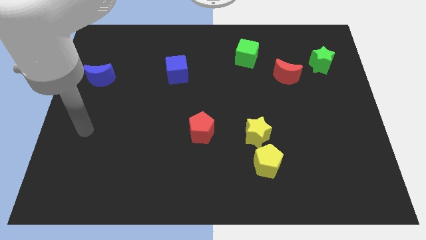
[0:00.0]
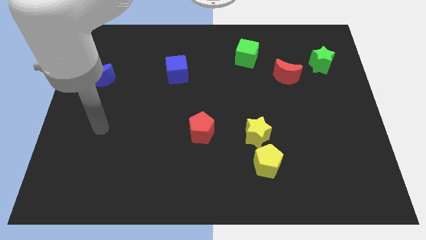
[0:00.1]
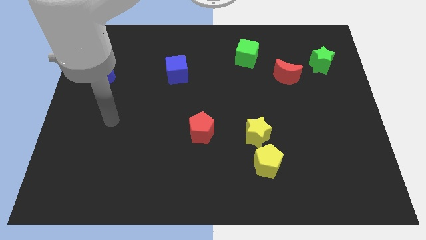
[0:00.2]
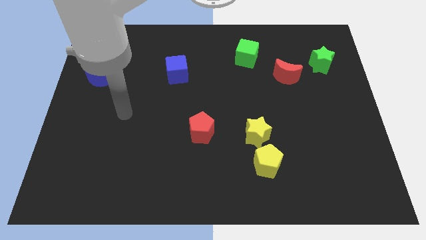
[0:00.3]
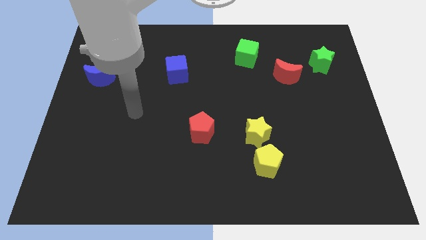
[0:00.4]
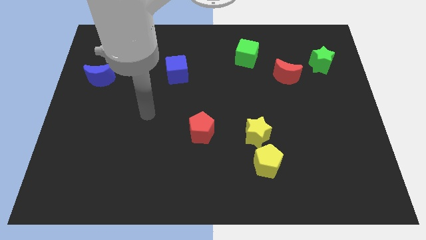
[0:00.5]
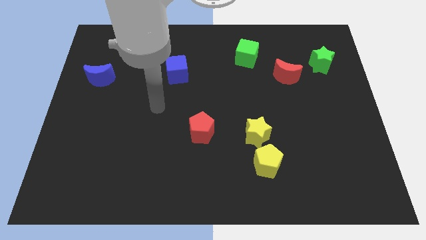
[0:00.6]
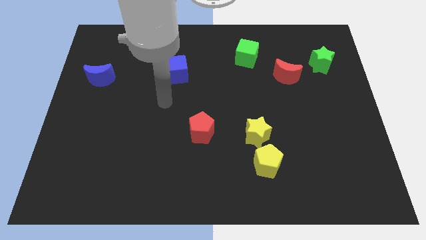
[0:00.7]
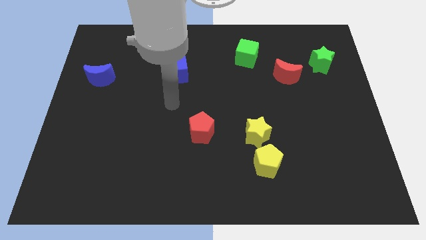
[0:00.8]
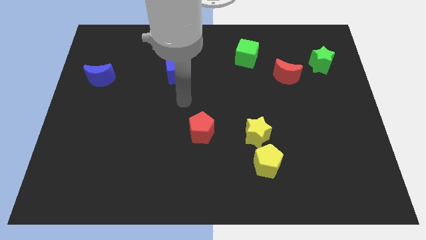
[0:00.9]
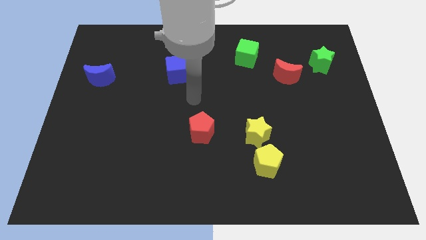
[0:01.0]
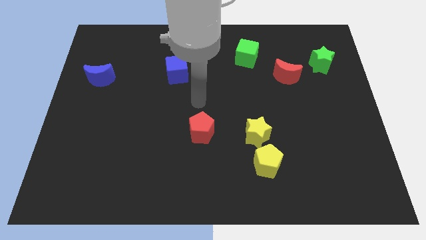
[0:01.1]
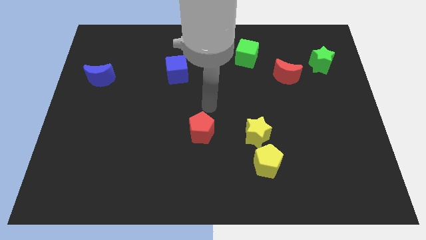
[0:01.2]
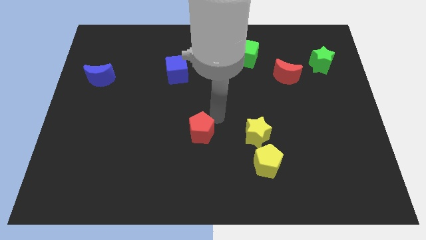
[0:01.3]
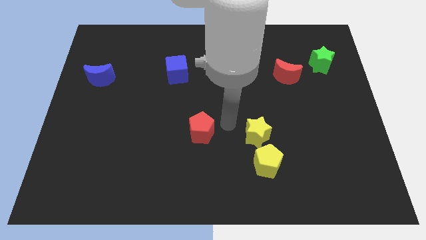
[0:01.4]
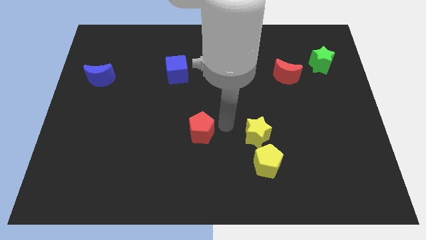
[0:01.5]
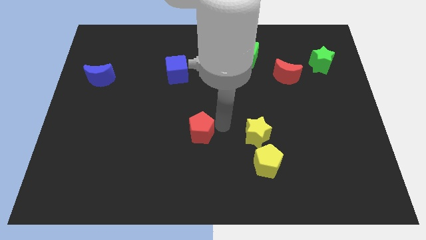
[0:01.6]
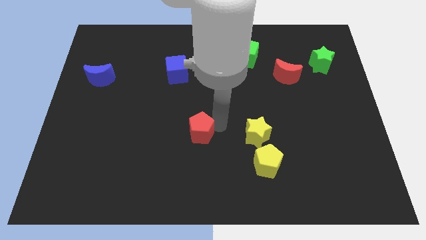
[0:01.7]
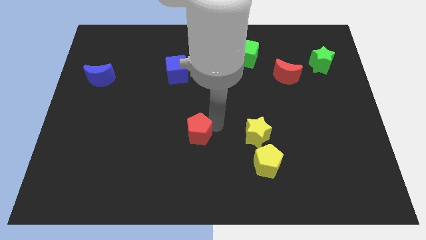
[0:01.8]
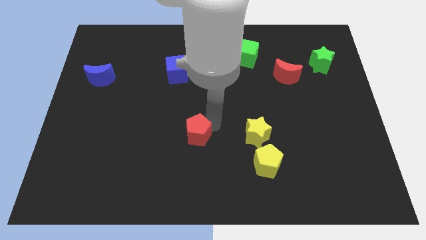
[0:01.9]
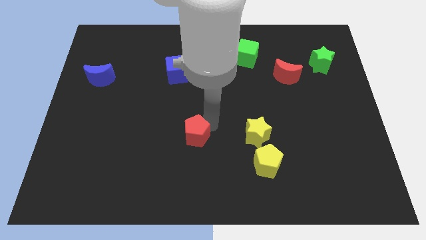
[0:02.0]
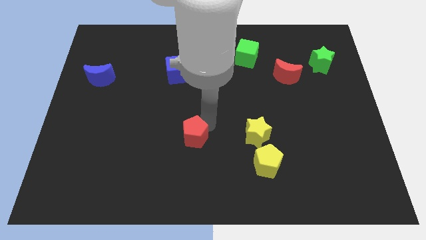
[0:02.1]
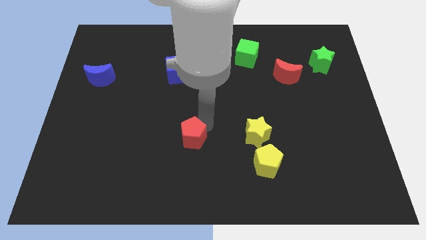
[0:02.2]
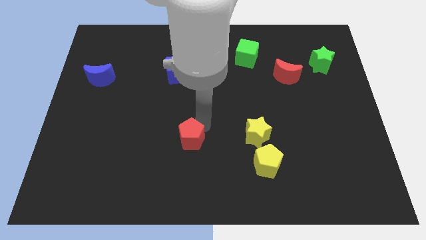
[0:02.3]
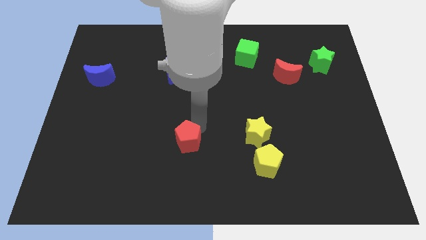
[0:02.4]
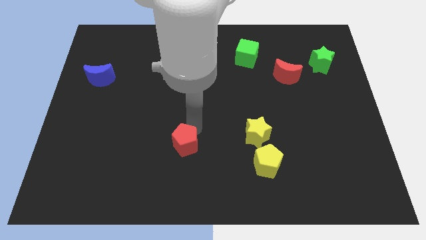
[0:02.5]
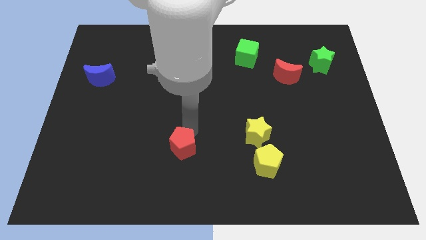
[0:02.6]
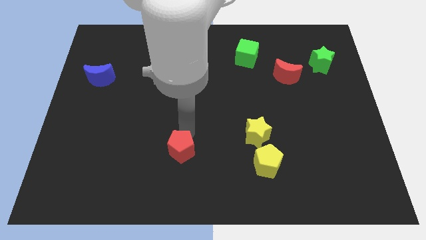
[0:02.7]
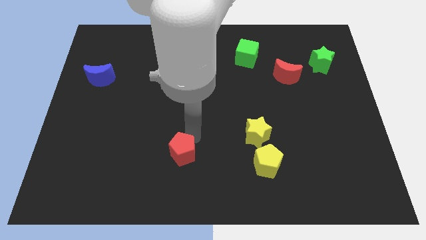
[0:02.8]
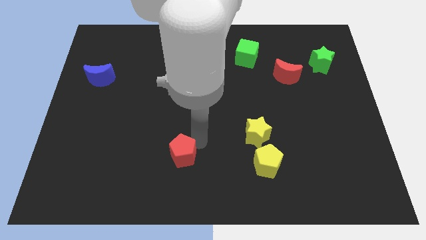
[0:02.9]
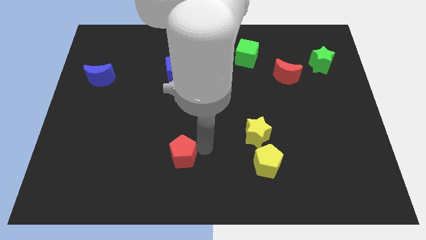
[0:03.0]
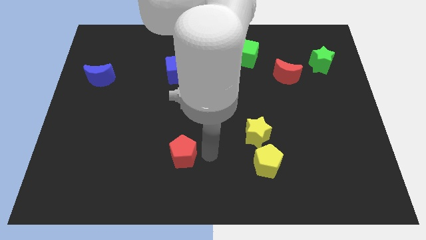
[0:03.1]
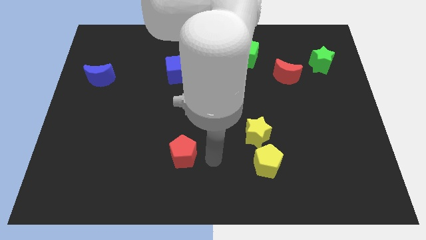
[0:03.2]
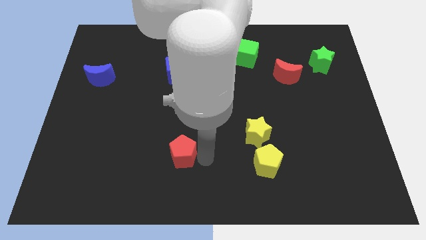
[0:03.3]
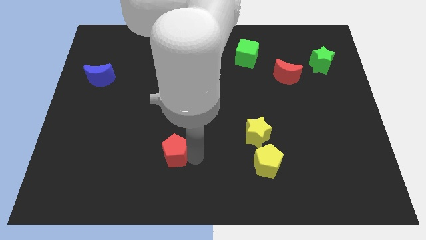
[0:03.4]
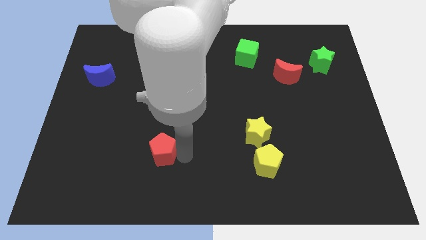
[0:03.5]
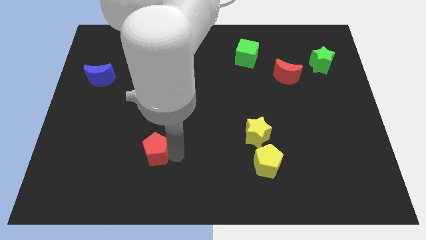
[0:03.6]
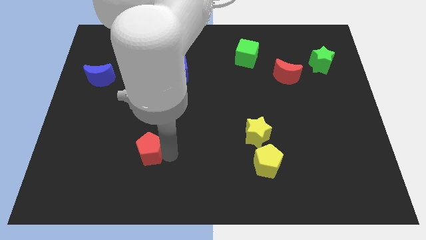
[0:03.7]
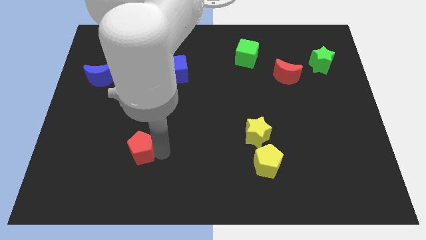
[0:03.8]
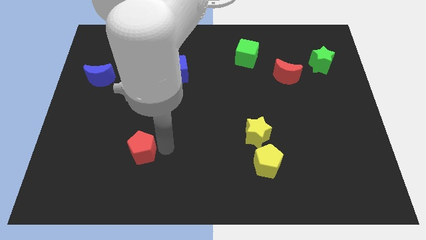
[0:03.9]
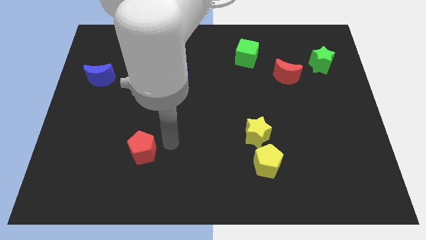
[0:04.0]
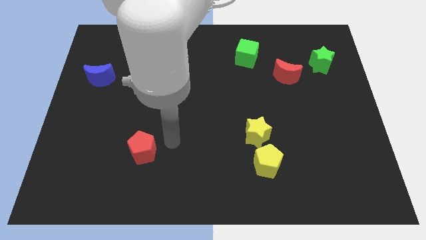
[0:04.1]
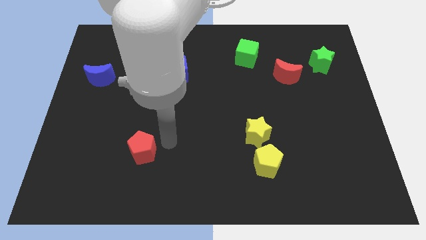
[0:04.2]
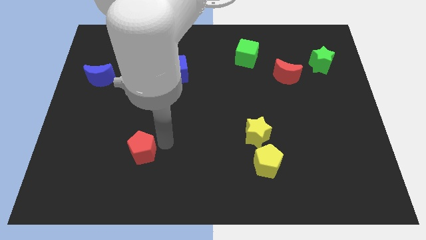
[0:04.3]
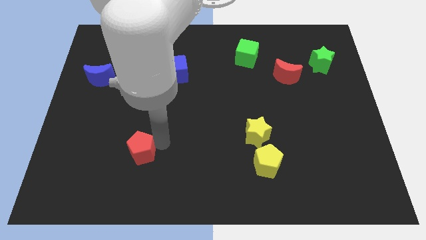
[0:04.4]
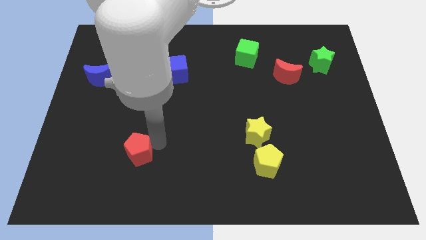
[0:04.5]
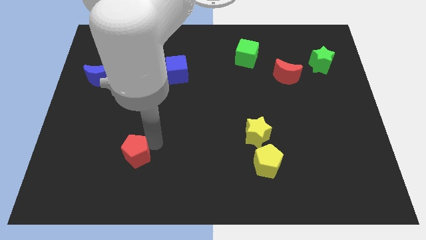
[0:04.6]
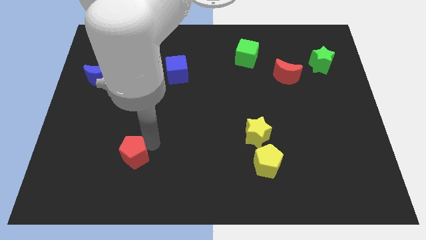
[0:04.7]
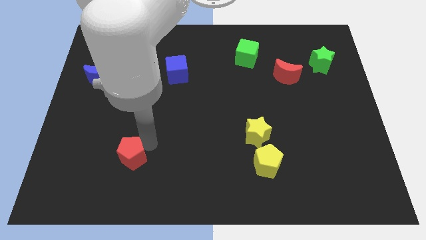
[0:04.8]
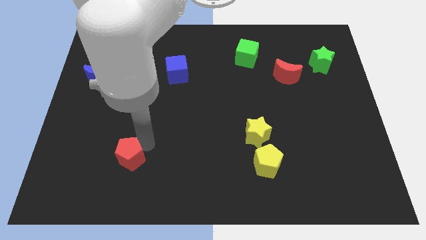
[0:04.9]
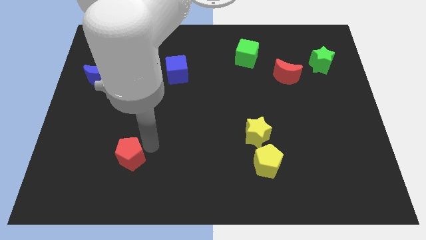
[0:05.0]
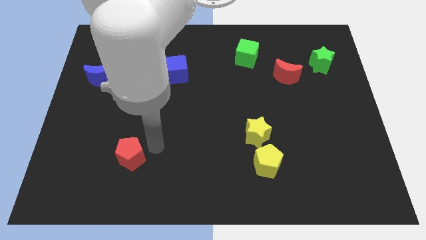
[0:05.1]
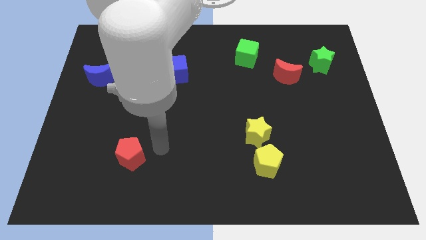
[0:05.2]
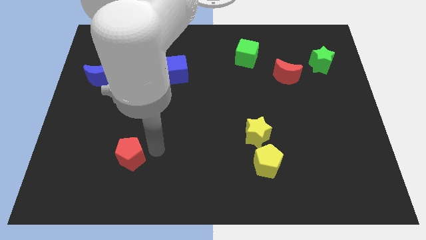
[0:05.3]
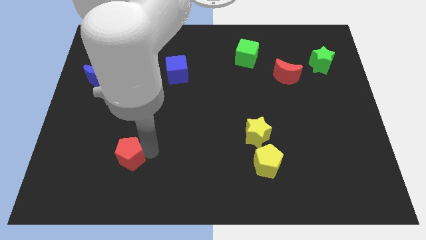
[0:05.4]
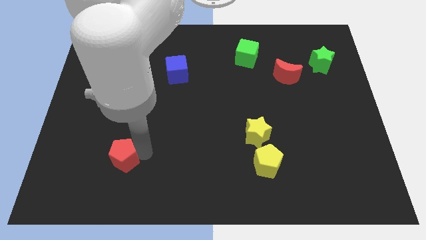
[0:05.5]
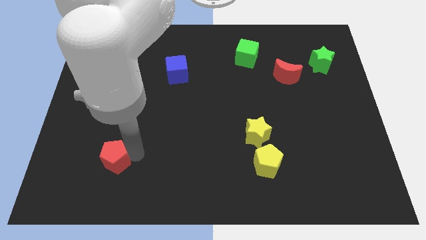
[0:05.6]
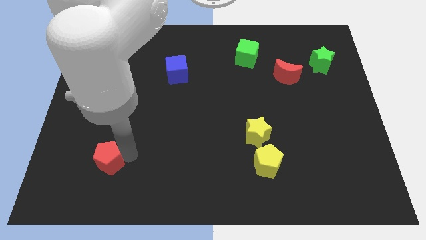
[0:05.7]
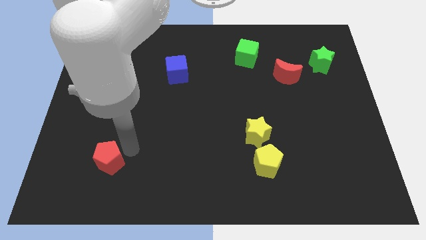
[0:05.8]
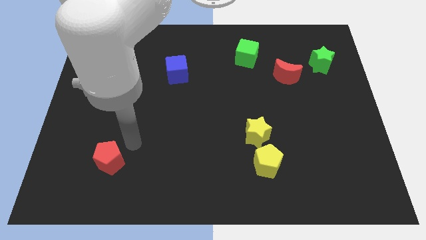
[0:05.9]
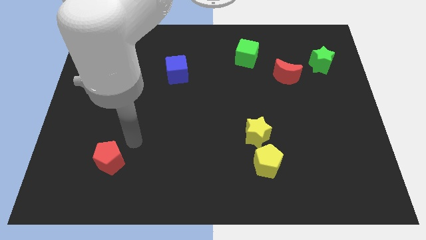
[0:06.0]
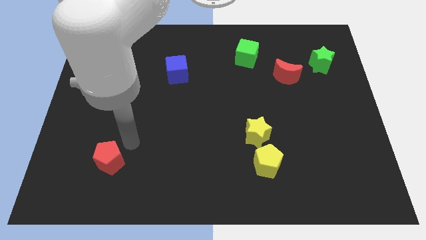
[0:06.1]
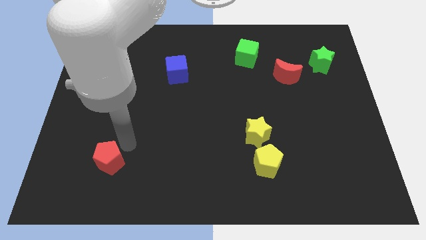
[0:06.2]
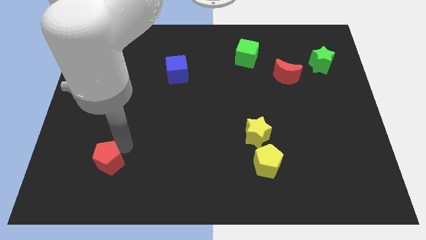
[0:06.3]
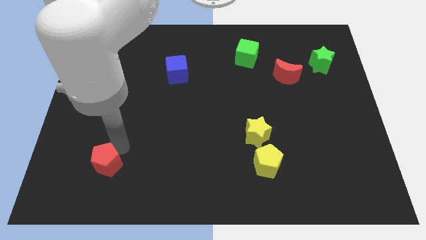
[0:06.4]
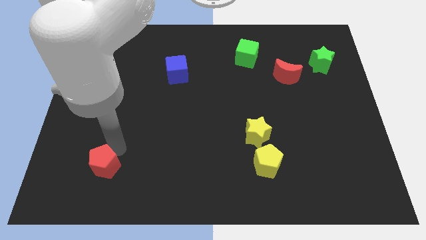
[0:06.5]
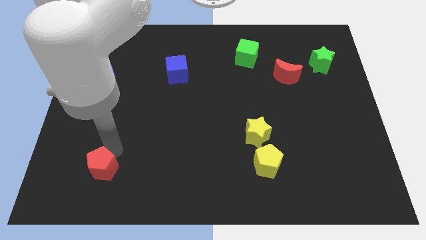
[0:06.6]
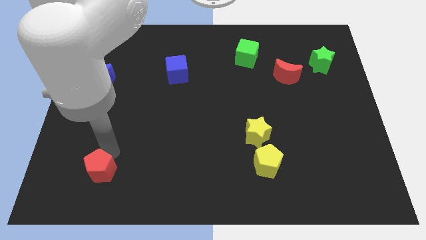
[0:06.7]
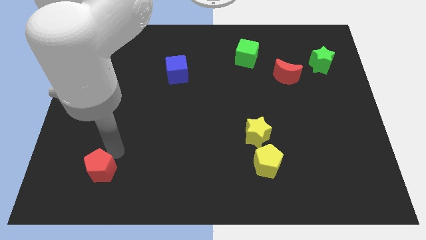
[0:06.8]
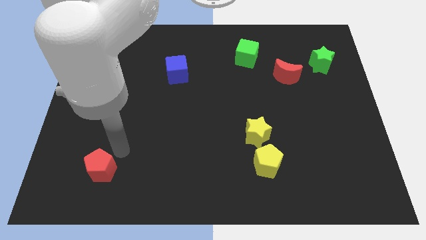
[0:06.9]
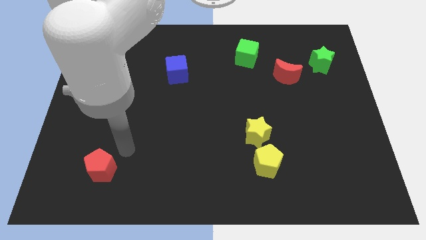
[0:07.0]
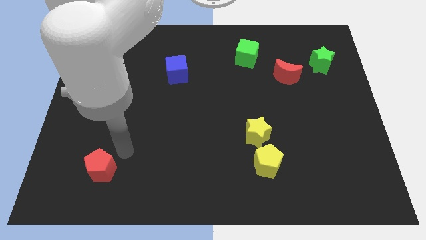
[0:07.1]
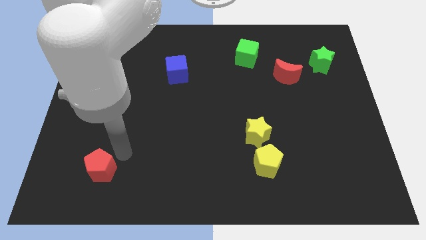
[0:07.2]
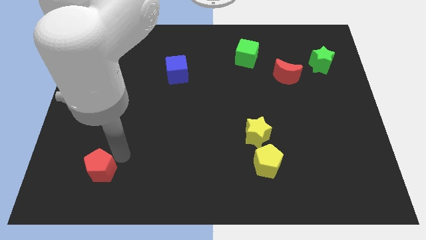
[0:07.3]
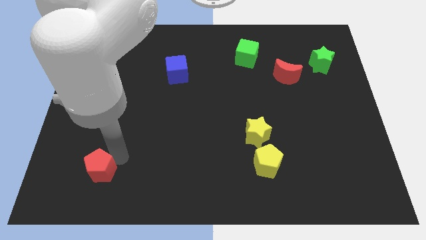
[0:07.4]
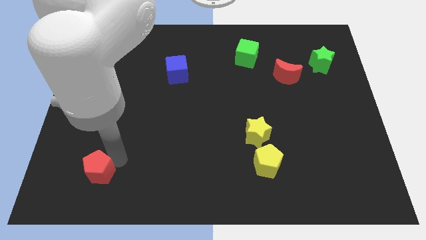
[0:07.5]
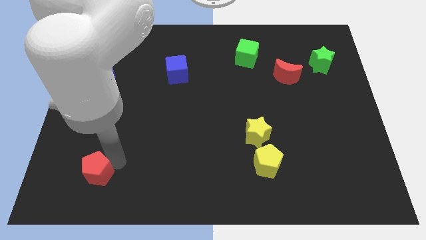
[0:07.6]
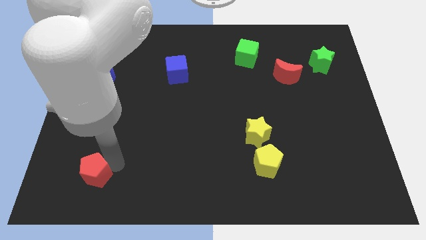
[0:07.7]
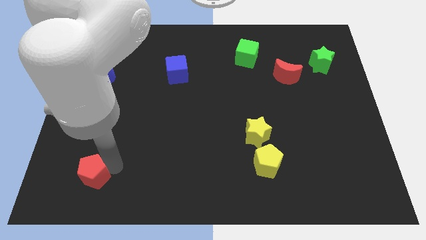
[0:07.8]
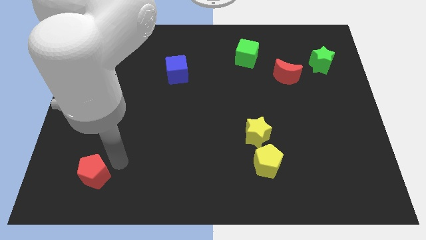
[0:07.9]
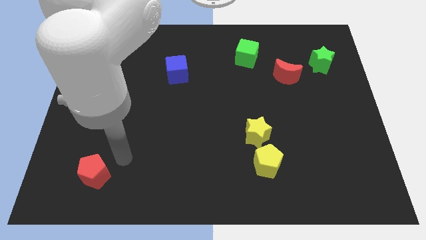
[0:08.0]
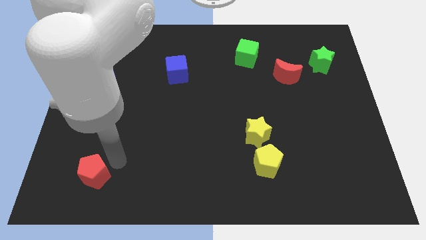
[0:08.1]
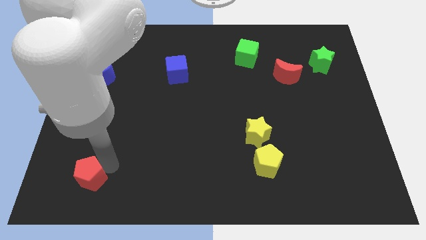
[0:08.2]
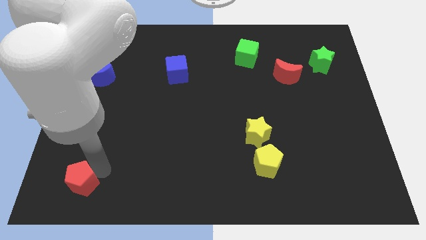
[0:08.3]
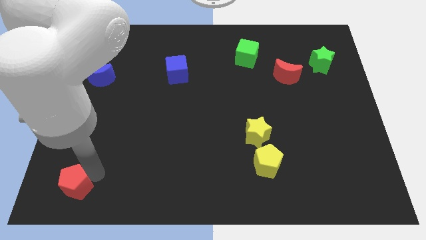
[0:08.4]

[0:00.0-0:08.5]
slide the red pentagon to the bottom left corner
